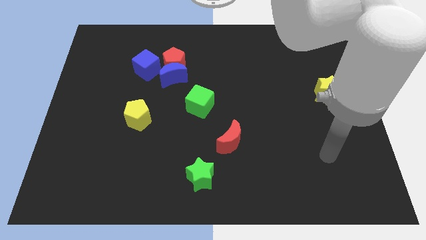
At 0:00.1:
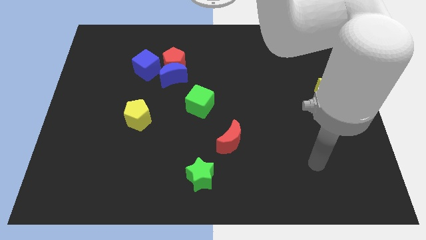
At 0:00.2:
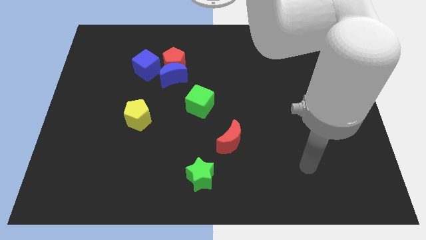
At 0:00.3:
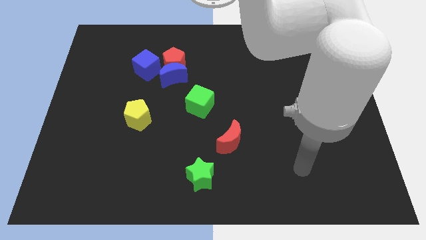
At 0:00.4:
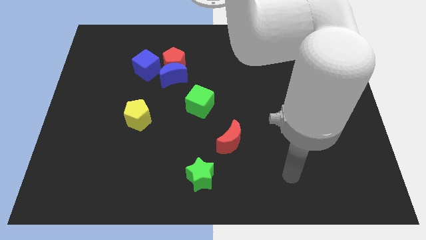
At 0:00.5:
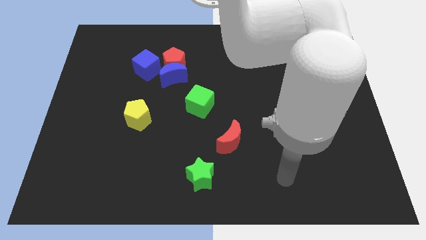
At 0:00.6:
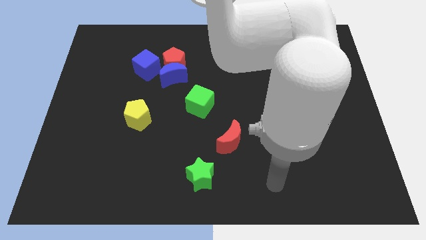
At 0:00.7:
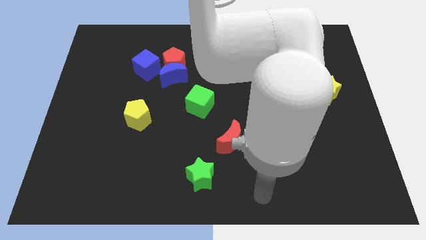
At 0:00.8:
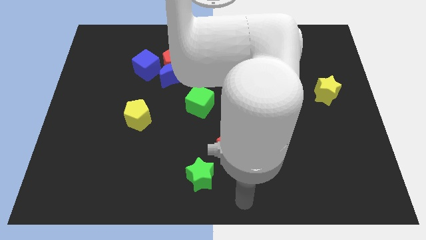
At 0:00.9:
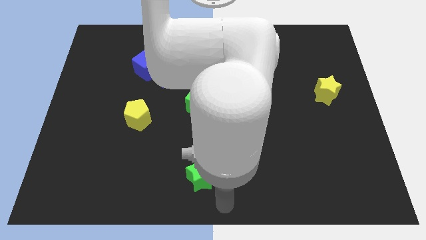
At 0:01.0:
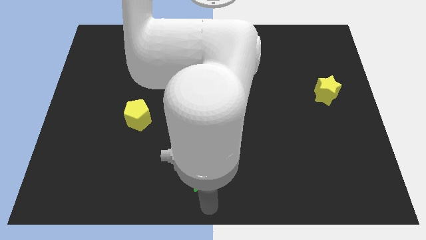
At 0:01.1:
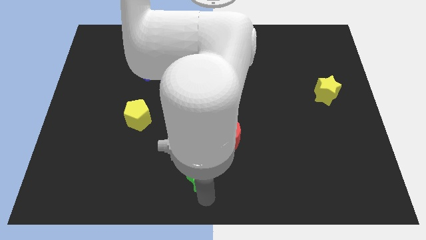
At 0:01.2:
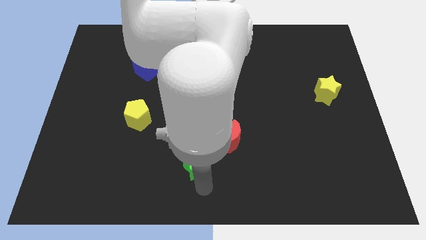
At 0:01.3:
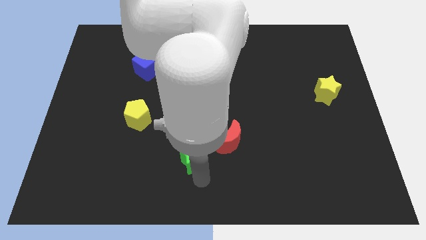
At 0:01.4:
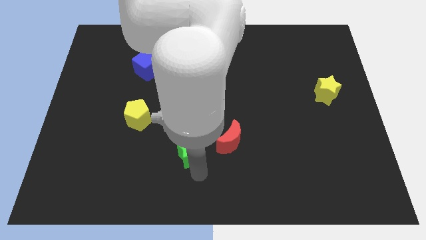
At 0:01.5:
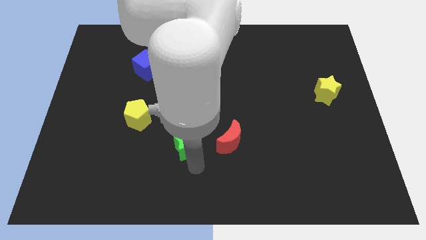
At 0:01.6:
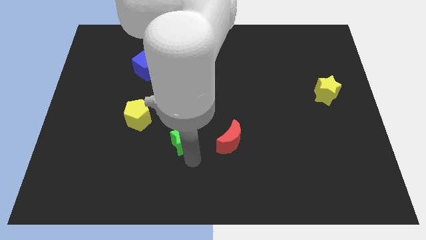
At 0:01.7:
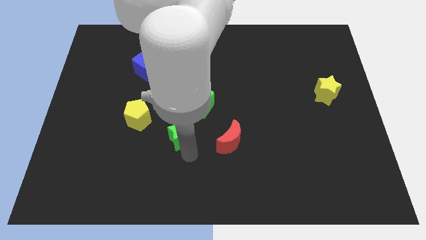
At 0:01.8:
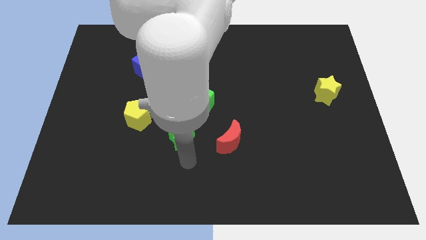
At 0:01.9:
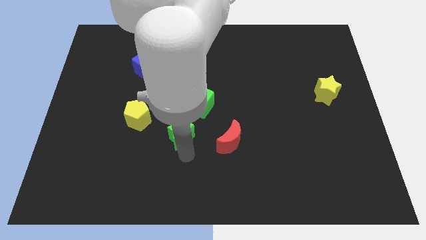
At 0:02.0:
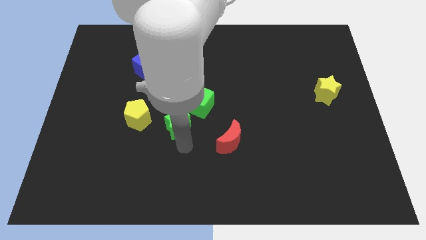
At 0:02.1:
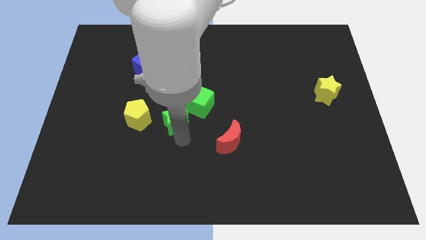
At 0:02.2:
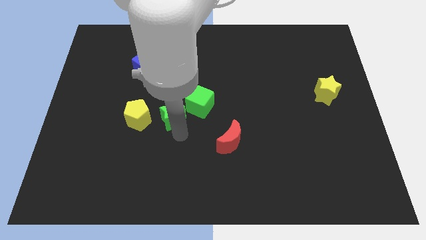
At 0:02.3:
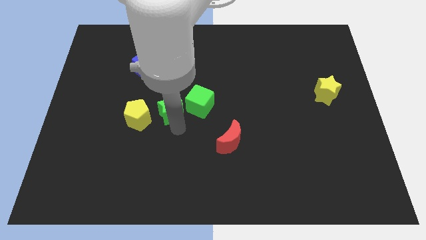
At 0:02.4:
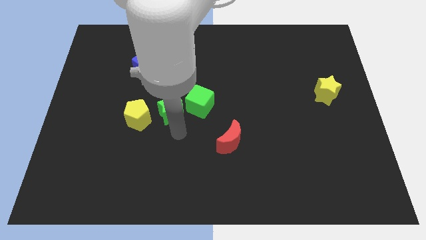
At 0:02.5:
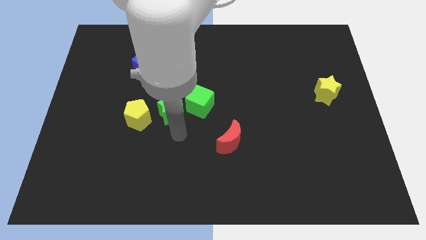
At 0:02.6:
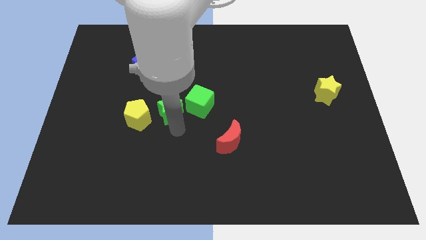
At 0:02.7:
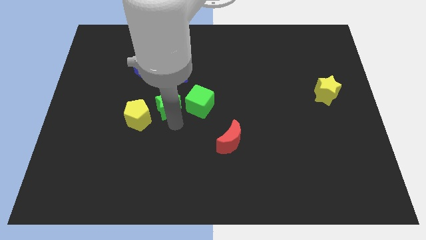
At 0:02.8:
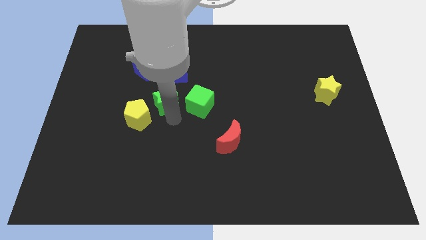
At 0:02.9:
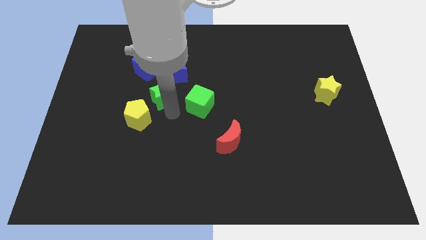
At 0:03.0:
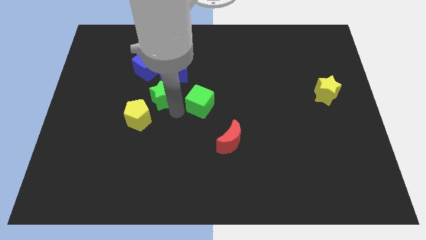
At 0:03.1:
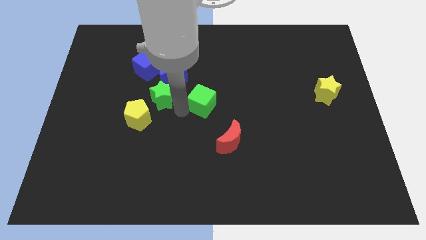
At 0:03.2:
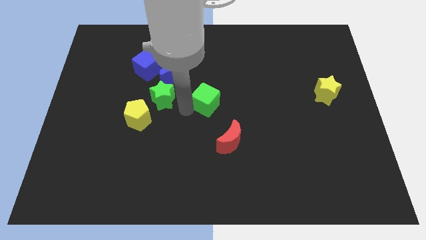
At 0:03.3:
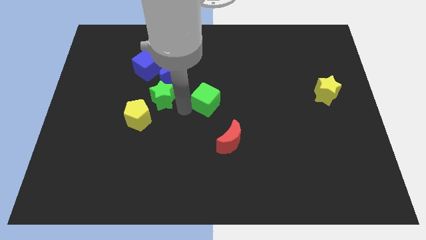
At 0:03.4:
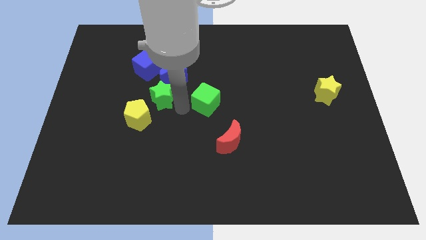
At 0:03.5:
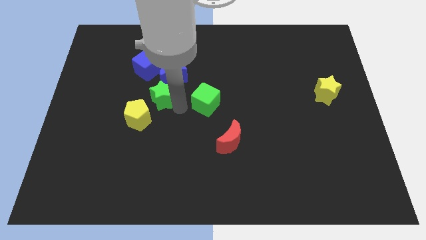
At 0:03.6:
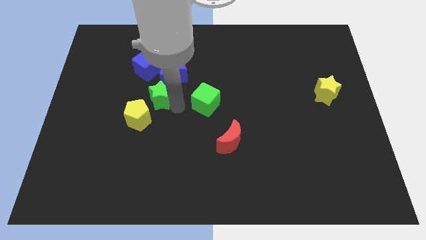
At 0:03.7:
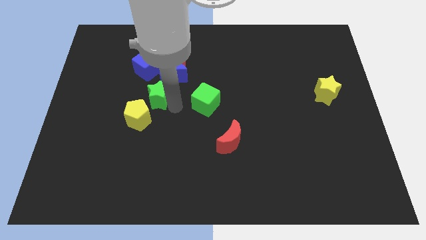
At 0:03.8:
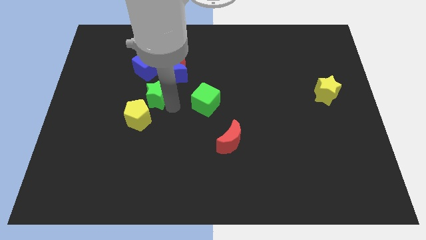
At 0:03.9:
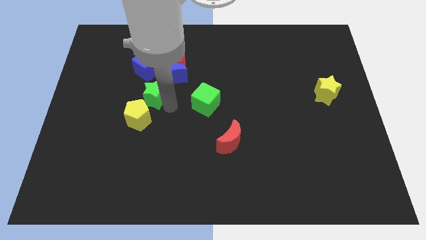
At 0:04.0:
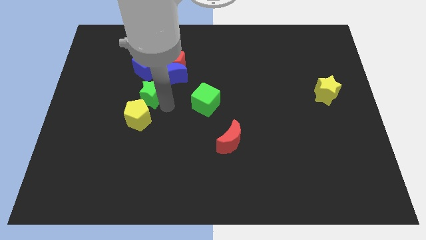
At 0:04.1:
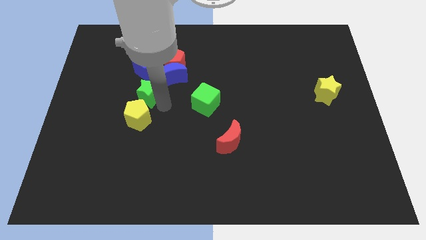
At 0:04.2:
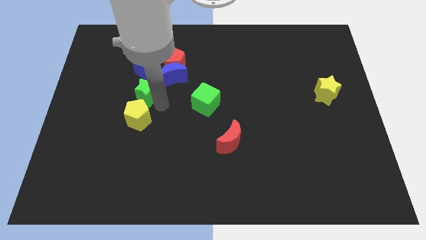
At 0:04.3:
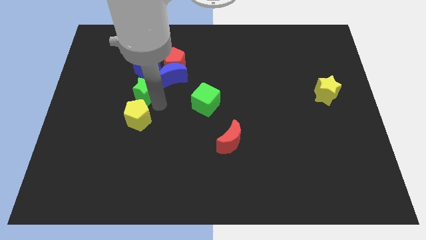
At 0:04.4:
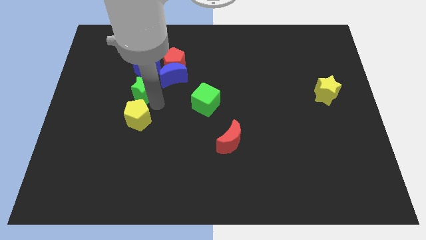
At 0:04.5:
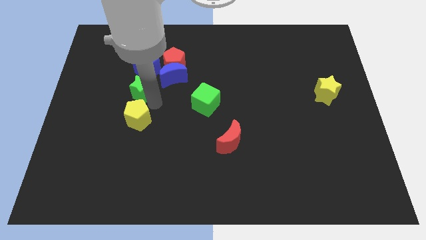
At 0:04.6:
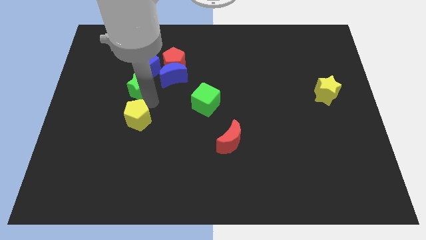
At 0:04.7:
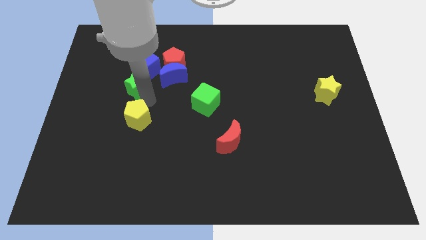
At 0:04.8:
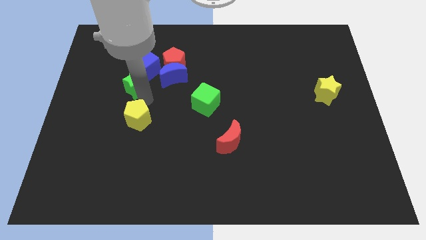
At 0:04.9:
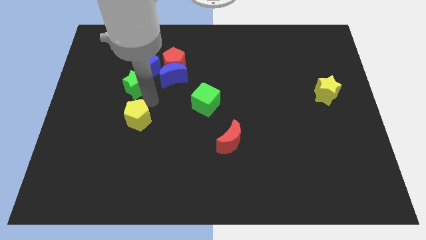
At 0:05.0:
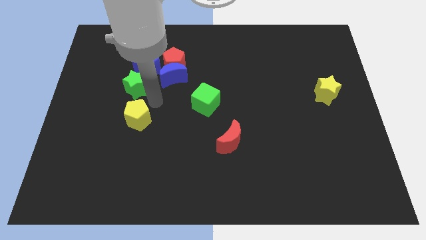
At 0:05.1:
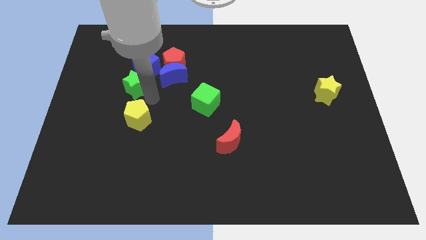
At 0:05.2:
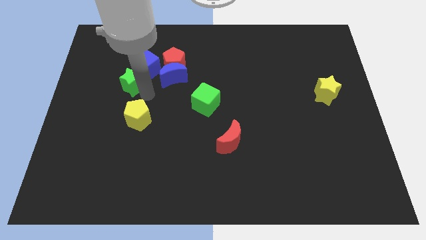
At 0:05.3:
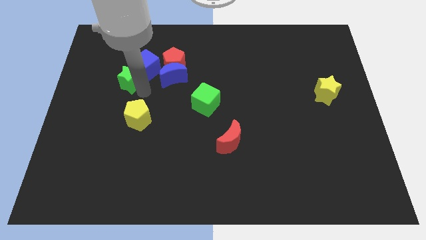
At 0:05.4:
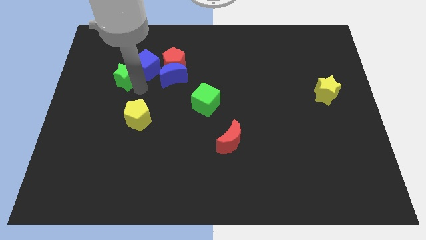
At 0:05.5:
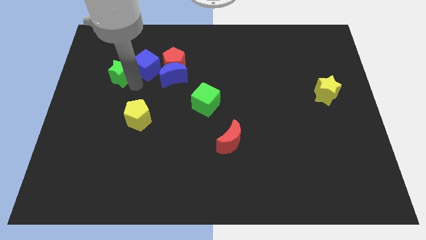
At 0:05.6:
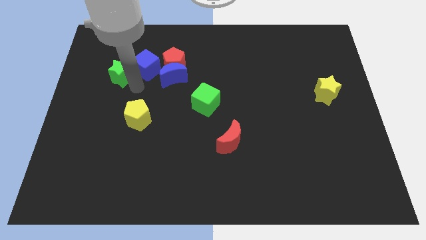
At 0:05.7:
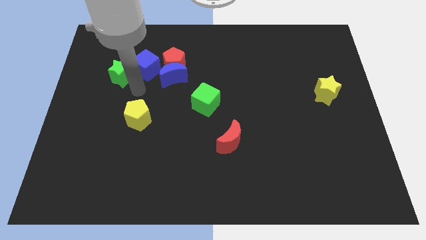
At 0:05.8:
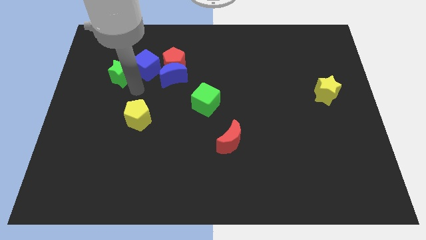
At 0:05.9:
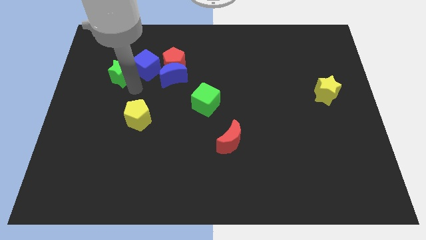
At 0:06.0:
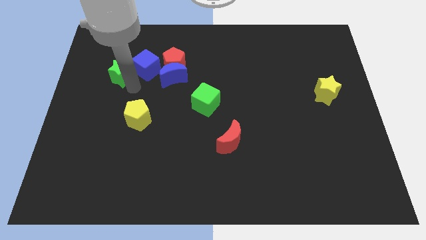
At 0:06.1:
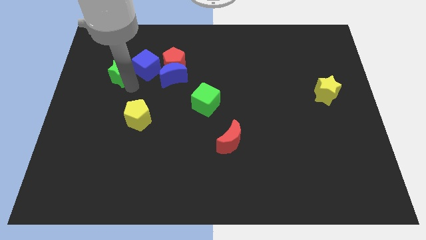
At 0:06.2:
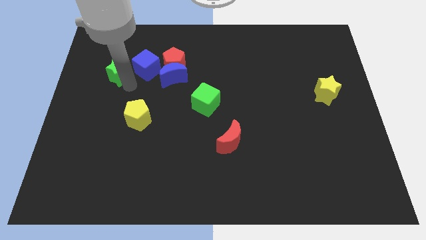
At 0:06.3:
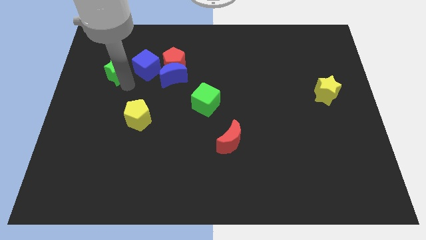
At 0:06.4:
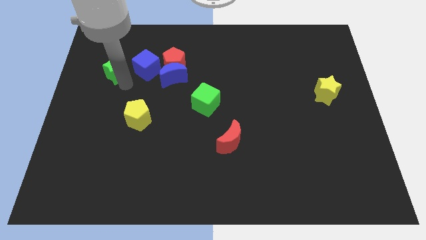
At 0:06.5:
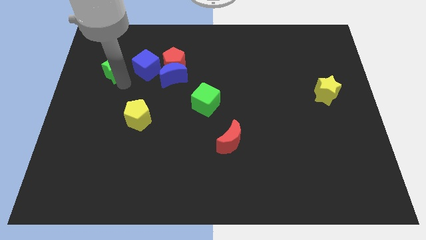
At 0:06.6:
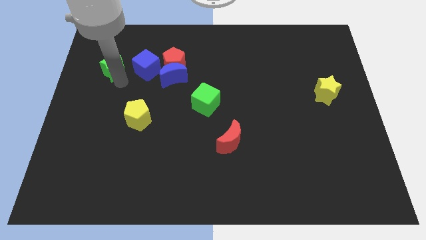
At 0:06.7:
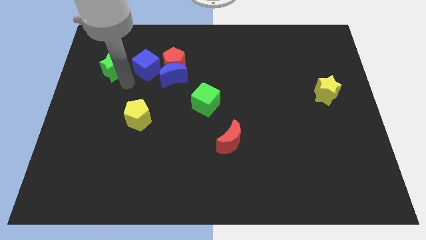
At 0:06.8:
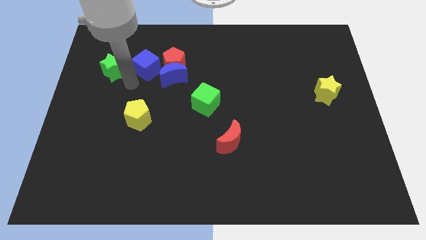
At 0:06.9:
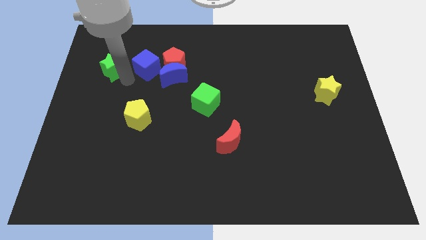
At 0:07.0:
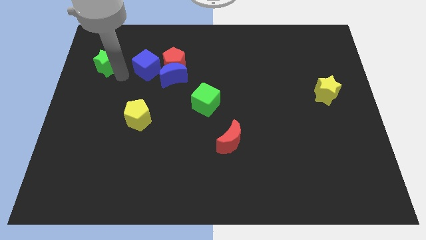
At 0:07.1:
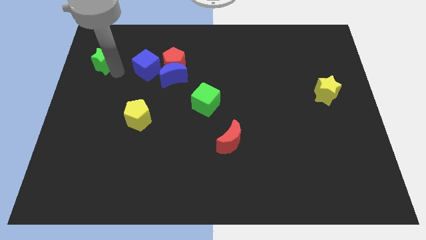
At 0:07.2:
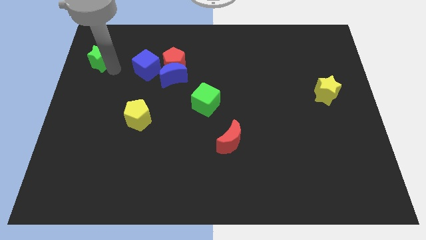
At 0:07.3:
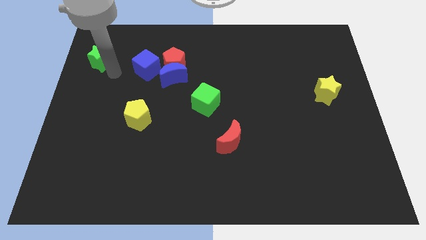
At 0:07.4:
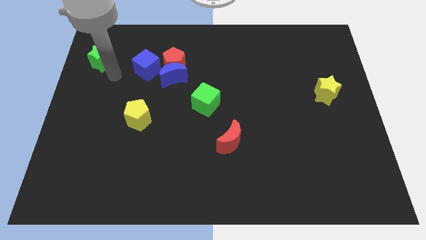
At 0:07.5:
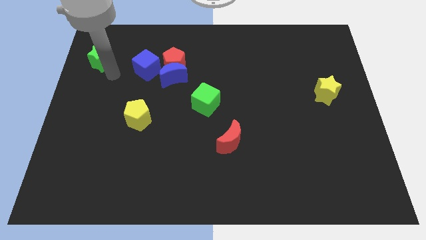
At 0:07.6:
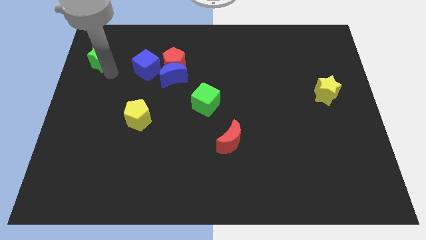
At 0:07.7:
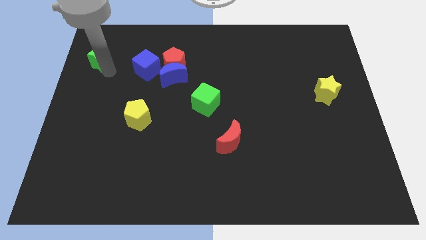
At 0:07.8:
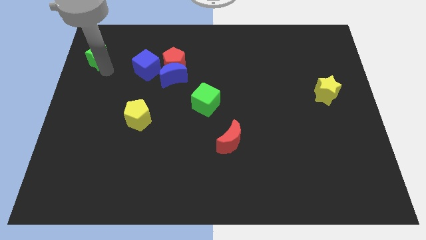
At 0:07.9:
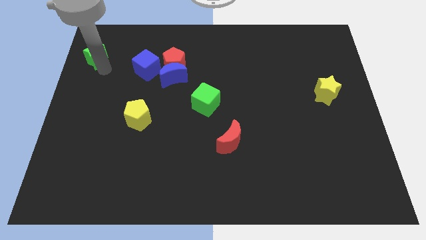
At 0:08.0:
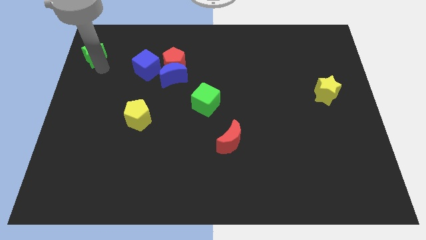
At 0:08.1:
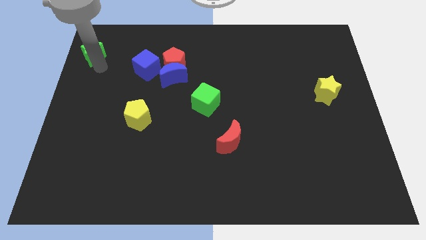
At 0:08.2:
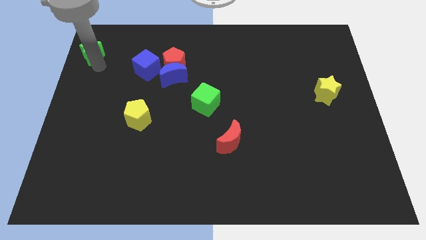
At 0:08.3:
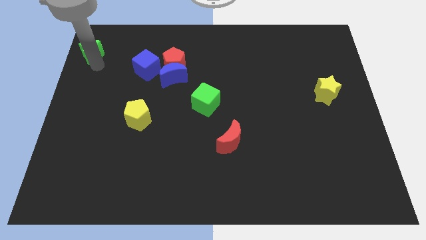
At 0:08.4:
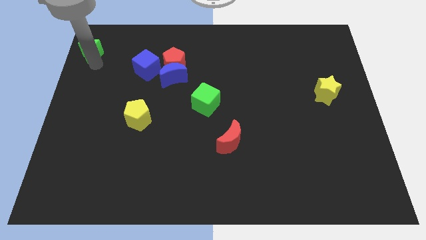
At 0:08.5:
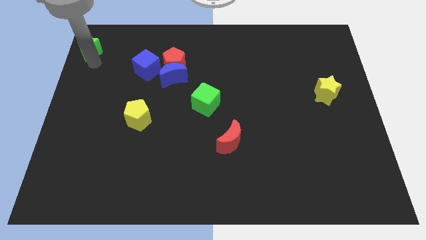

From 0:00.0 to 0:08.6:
push the green star to the upper left corner
